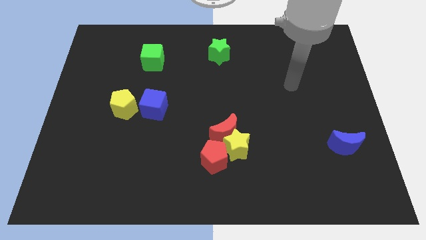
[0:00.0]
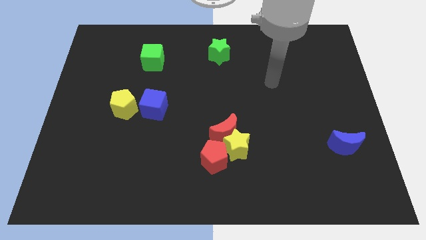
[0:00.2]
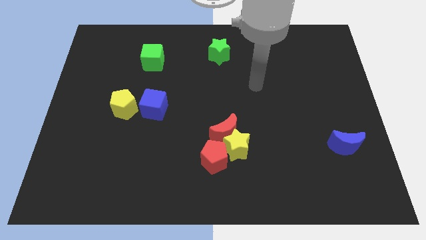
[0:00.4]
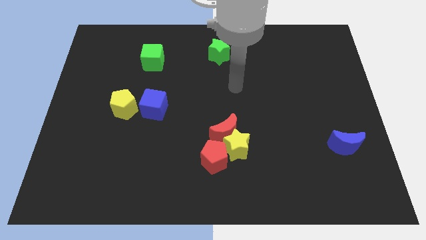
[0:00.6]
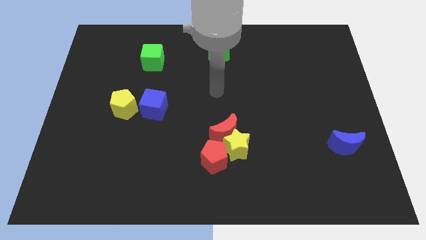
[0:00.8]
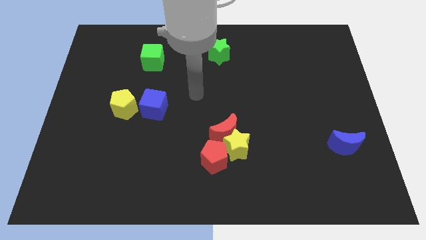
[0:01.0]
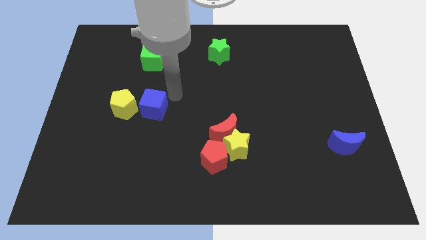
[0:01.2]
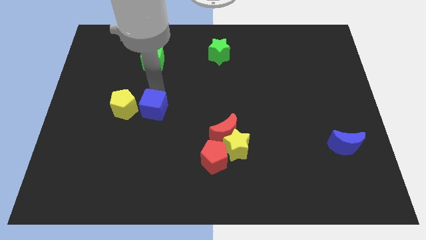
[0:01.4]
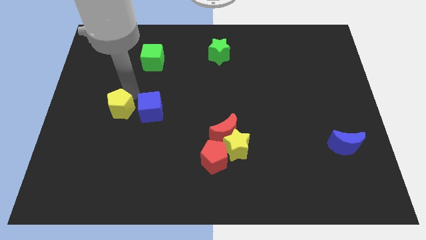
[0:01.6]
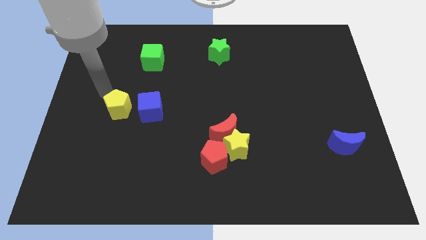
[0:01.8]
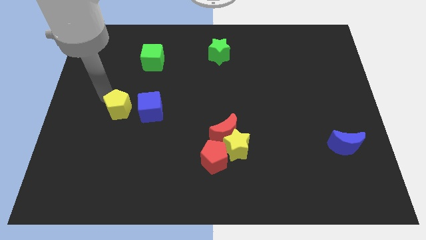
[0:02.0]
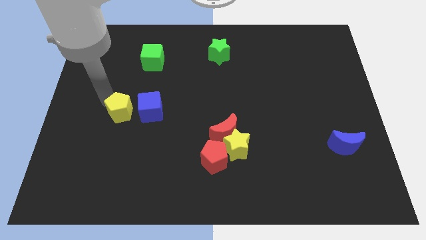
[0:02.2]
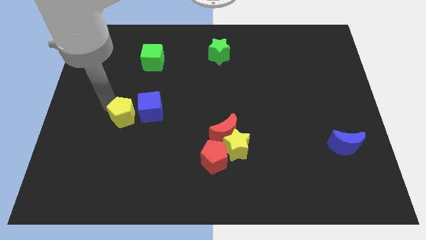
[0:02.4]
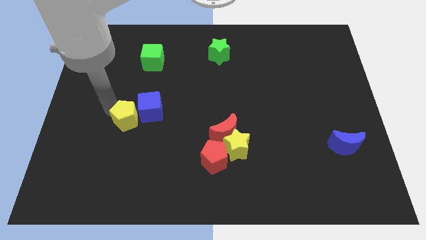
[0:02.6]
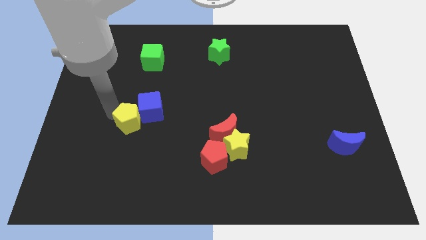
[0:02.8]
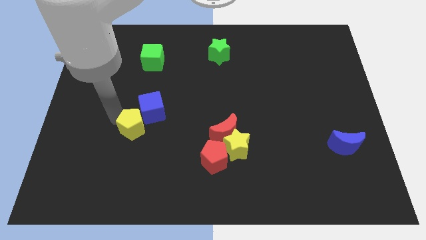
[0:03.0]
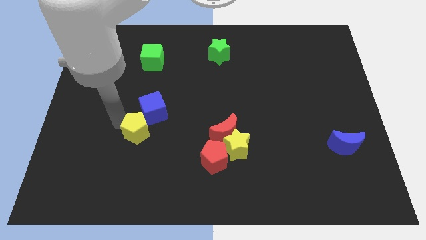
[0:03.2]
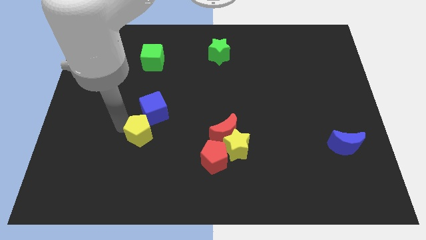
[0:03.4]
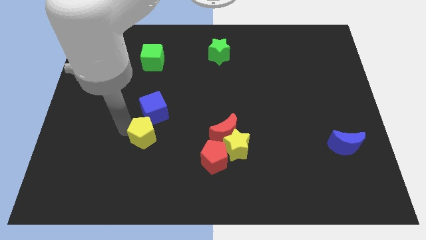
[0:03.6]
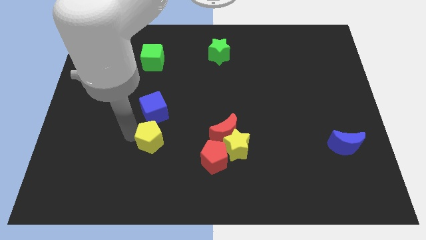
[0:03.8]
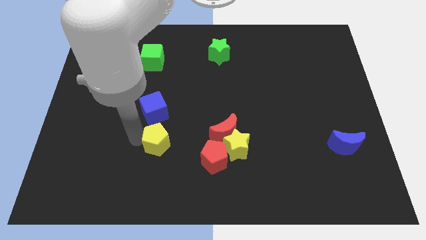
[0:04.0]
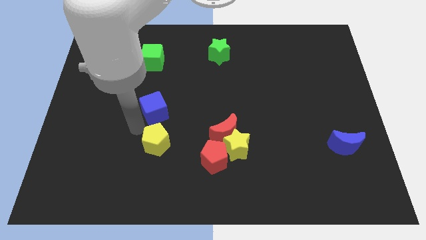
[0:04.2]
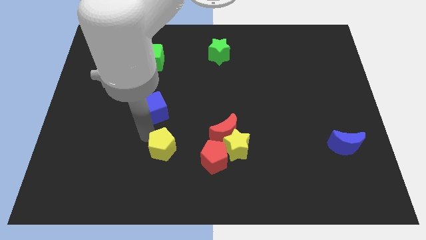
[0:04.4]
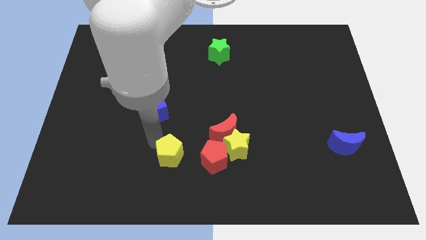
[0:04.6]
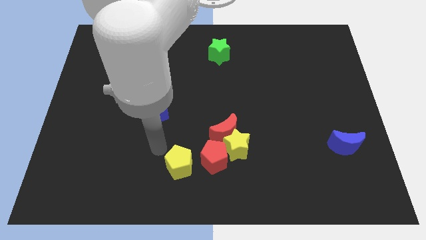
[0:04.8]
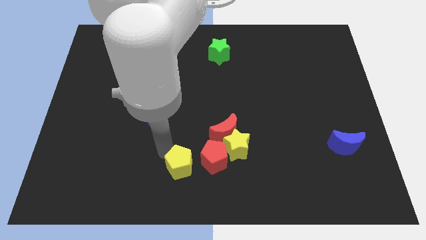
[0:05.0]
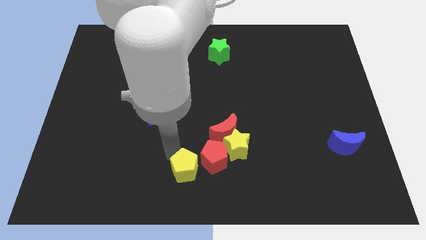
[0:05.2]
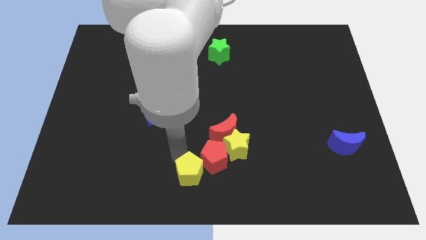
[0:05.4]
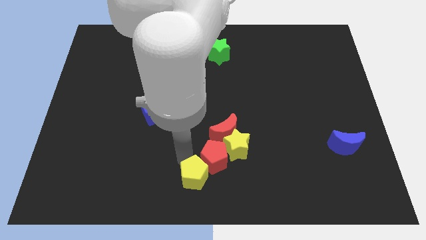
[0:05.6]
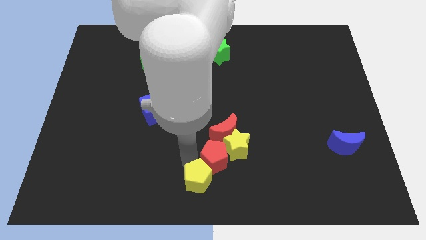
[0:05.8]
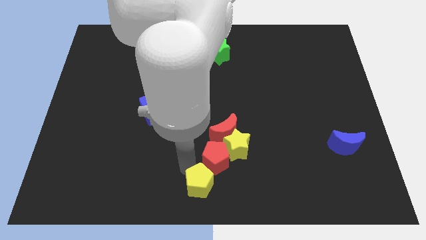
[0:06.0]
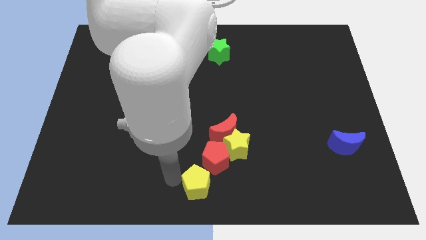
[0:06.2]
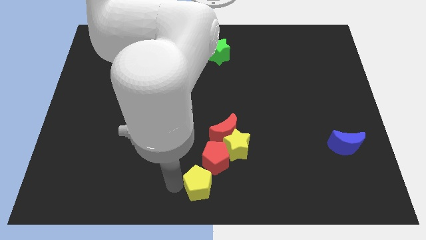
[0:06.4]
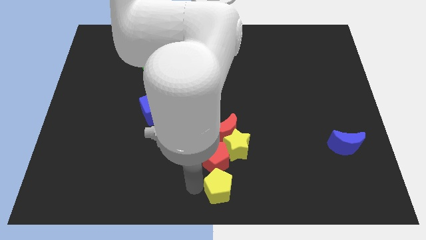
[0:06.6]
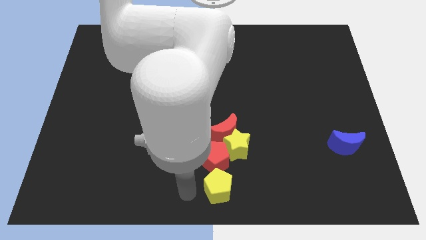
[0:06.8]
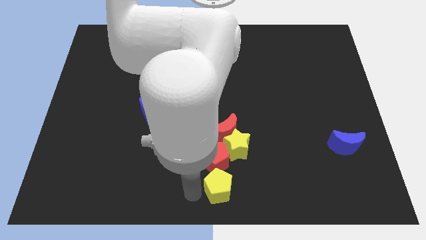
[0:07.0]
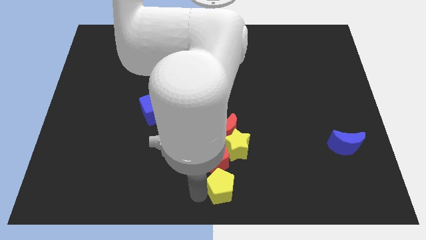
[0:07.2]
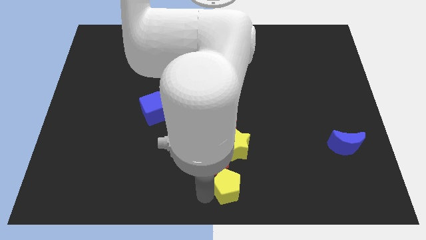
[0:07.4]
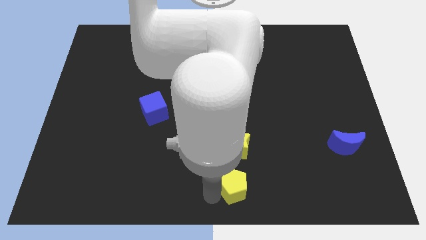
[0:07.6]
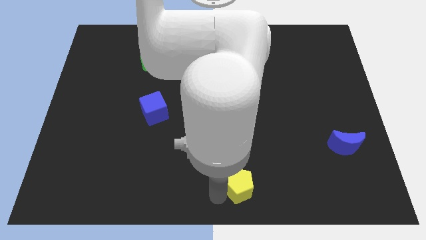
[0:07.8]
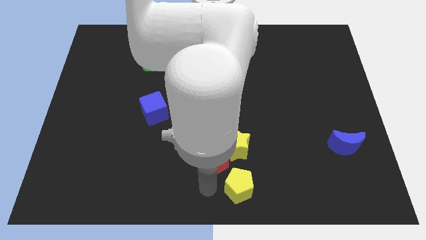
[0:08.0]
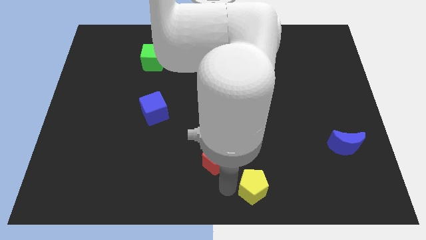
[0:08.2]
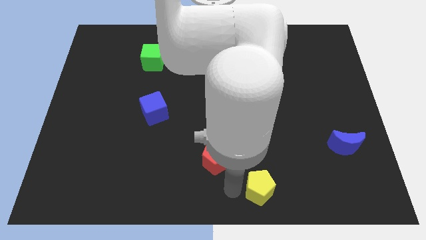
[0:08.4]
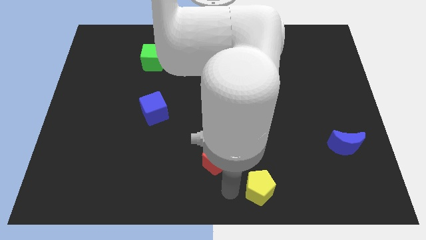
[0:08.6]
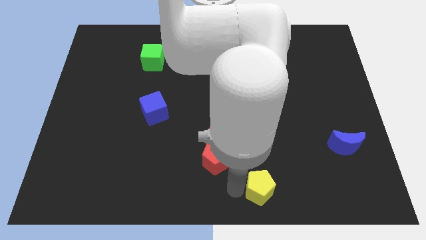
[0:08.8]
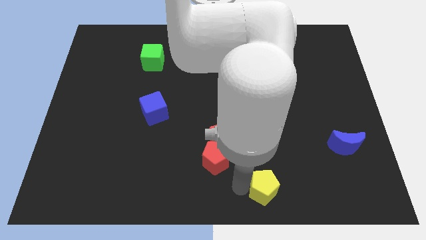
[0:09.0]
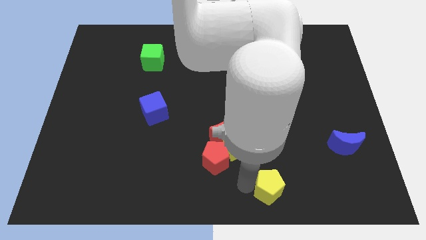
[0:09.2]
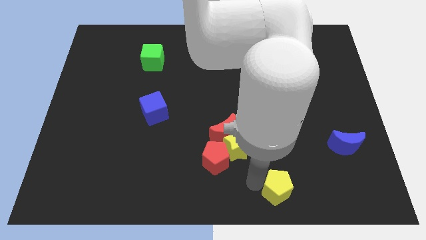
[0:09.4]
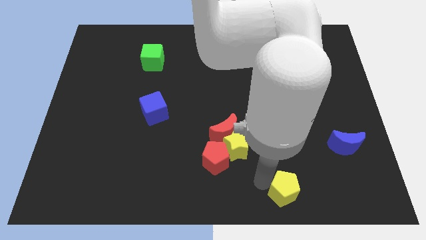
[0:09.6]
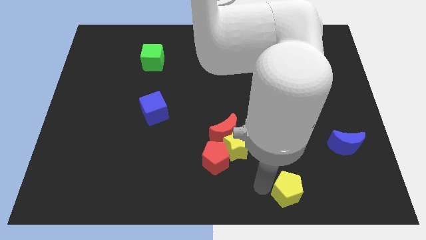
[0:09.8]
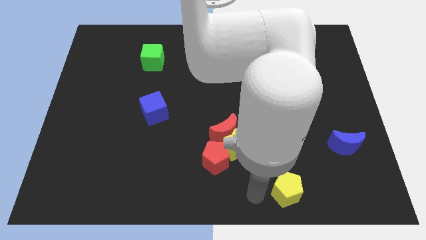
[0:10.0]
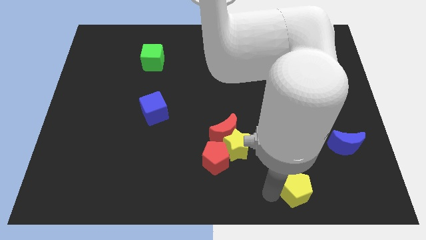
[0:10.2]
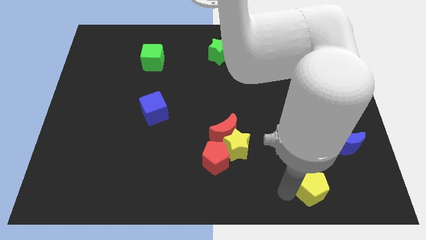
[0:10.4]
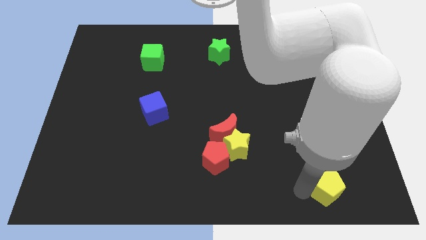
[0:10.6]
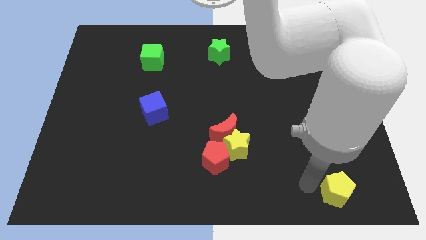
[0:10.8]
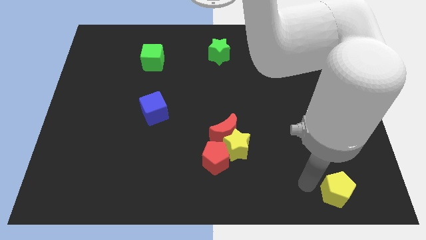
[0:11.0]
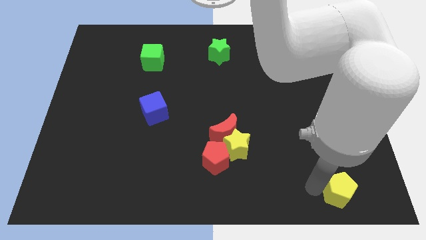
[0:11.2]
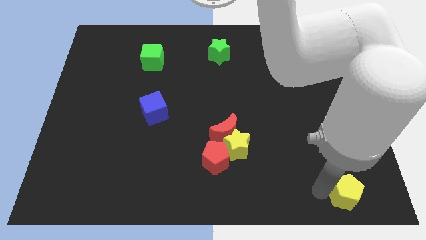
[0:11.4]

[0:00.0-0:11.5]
put the yellow pentagon to the lower right corner
